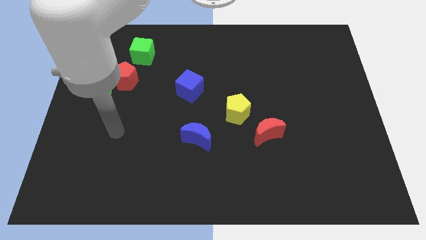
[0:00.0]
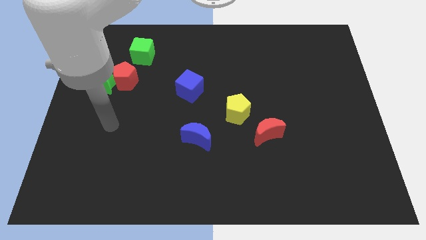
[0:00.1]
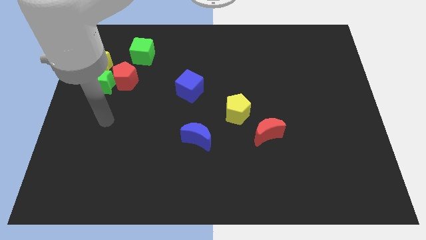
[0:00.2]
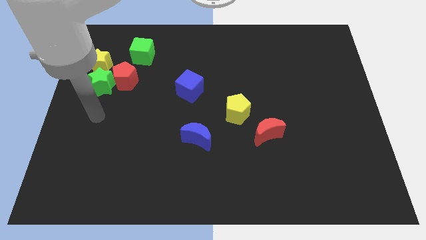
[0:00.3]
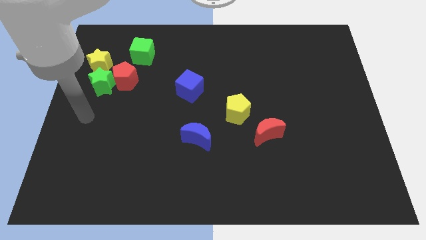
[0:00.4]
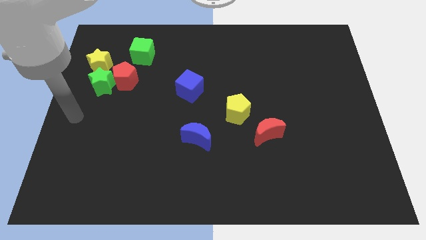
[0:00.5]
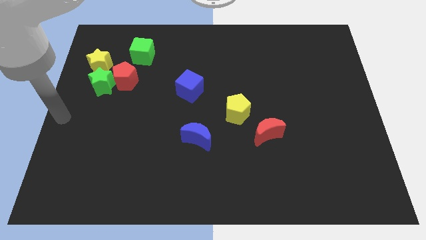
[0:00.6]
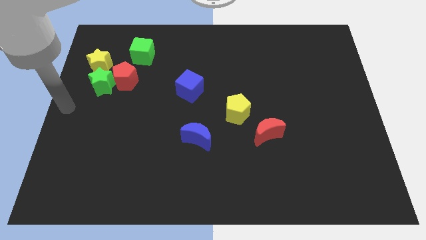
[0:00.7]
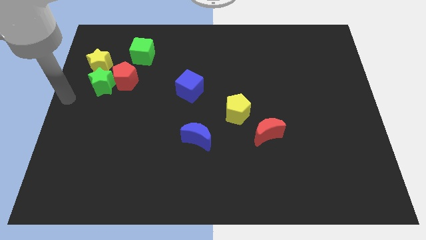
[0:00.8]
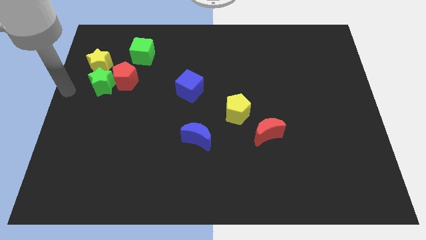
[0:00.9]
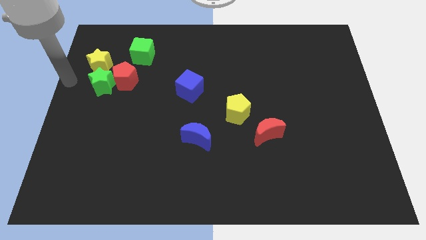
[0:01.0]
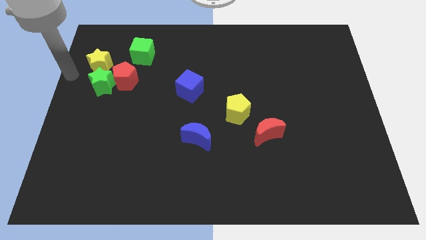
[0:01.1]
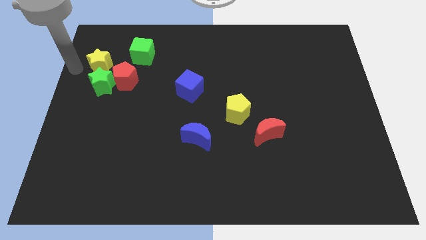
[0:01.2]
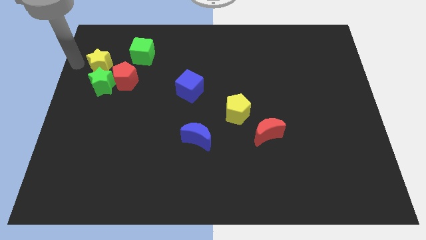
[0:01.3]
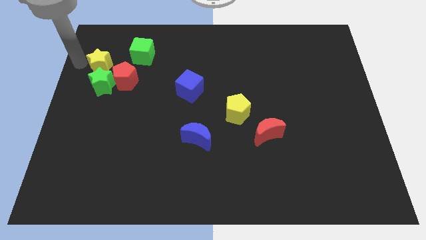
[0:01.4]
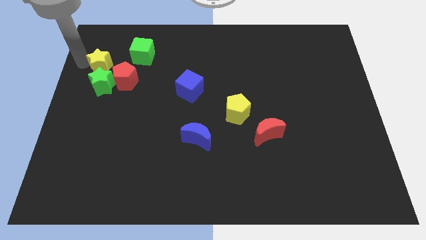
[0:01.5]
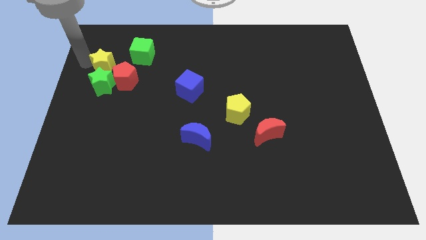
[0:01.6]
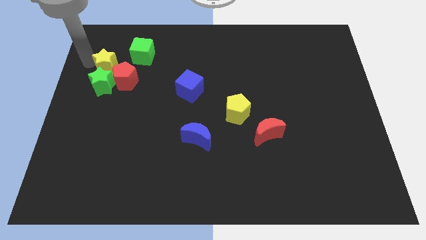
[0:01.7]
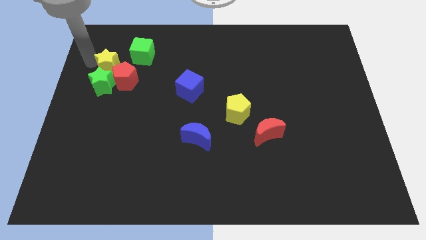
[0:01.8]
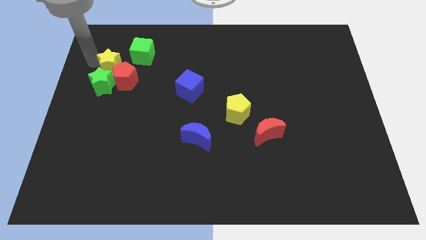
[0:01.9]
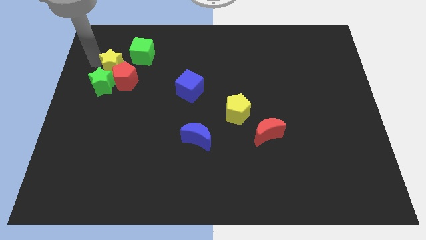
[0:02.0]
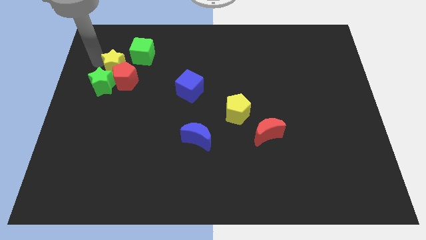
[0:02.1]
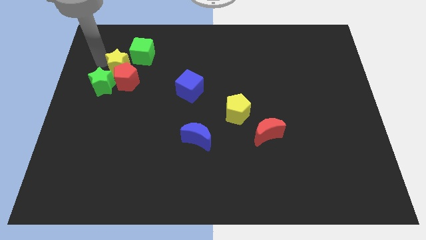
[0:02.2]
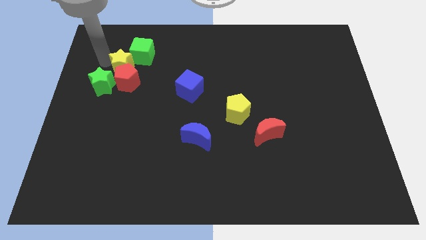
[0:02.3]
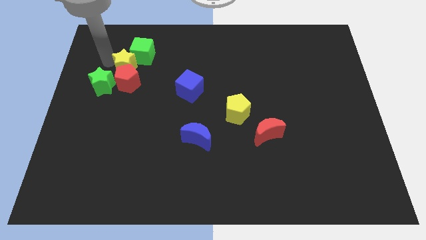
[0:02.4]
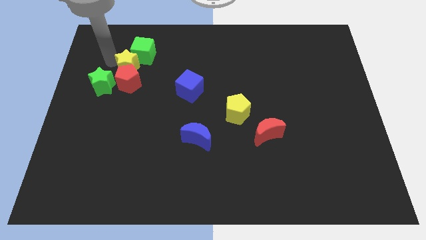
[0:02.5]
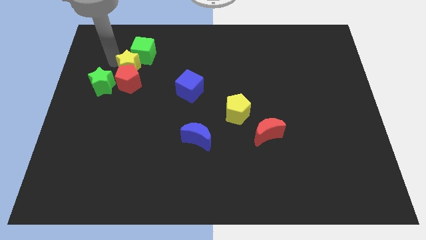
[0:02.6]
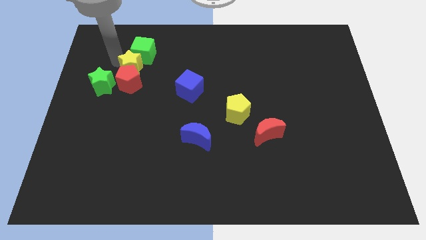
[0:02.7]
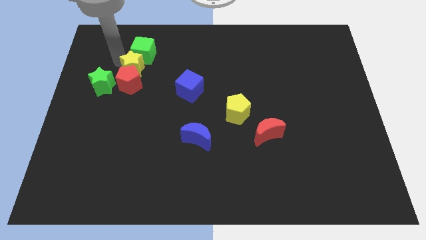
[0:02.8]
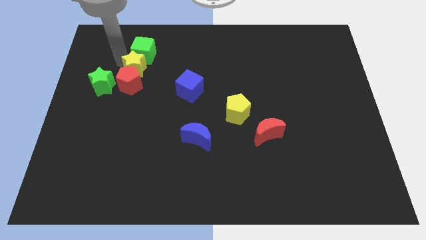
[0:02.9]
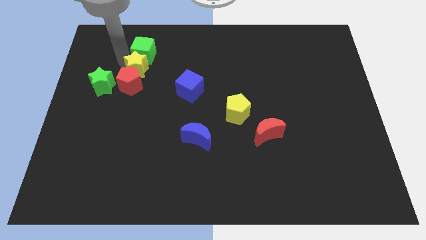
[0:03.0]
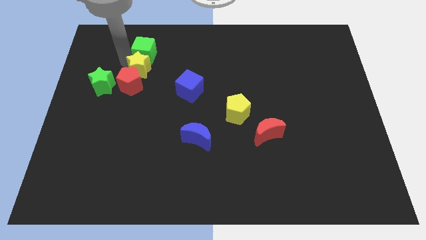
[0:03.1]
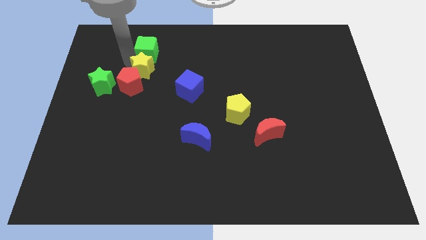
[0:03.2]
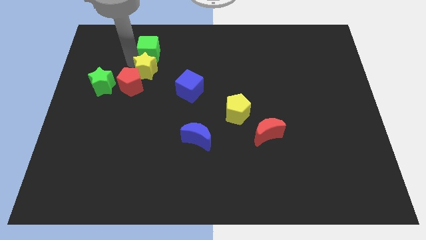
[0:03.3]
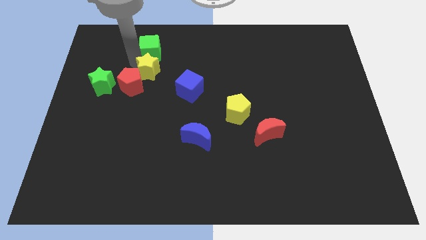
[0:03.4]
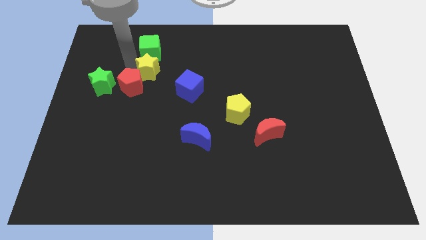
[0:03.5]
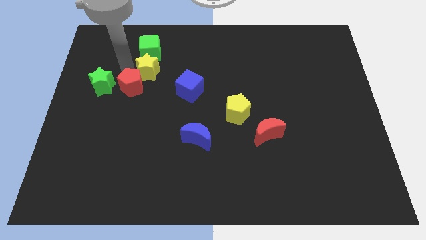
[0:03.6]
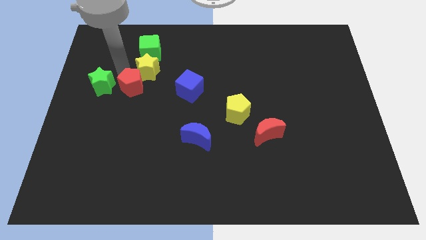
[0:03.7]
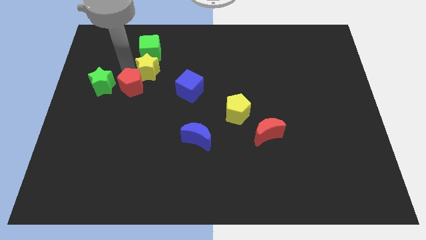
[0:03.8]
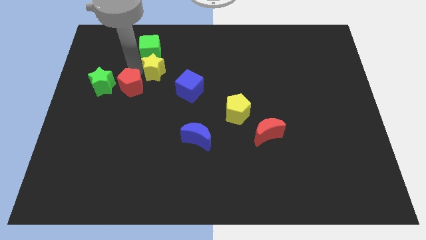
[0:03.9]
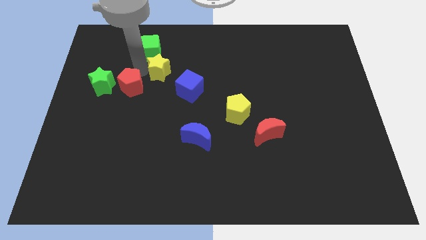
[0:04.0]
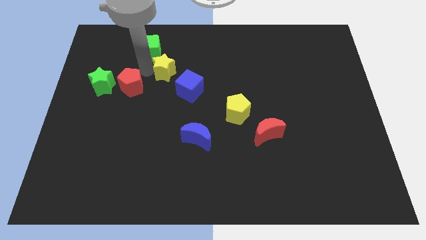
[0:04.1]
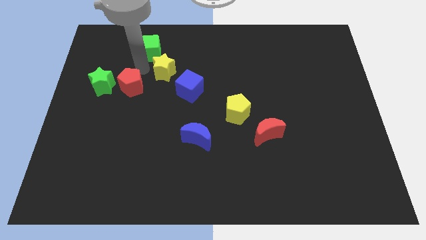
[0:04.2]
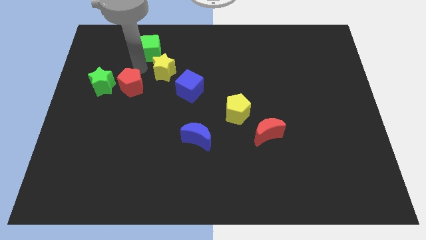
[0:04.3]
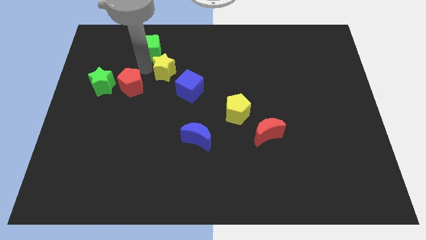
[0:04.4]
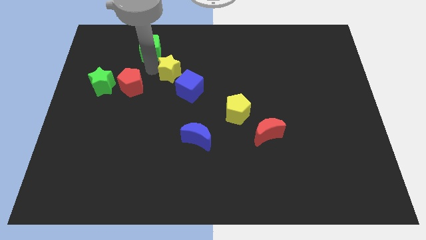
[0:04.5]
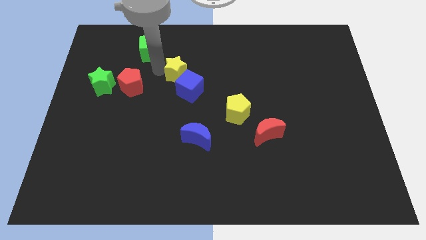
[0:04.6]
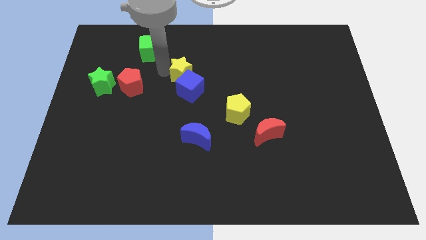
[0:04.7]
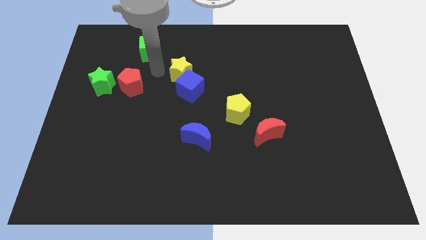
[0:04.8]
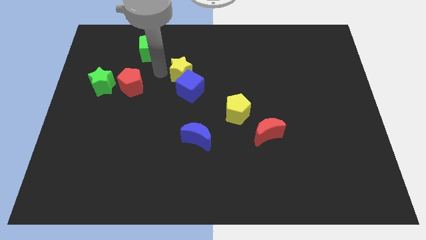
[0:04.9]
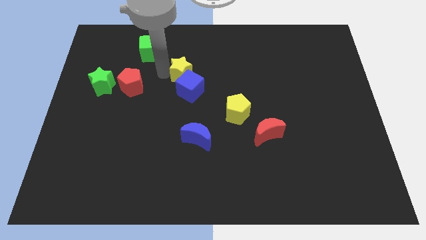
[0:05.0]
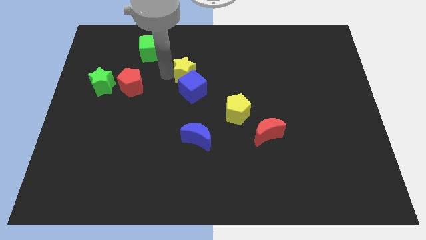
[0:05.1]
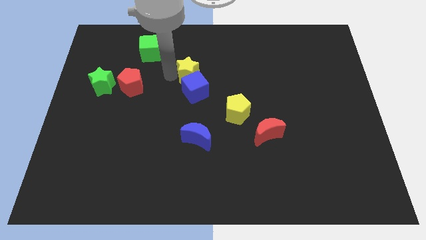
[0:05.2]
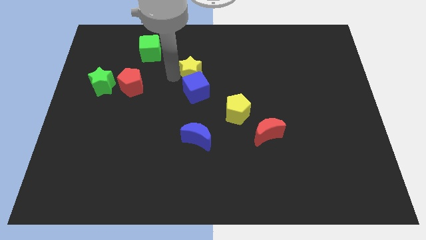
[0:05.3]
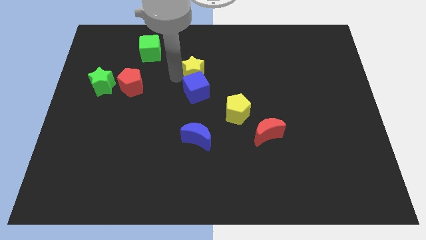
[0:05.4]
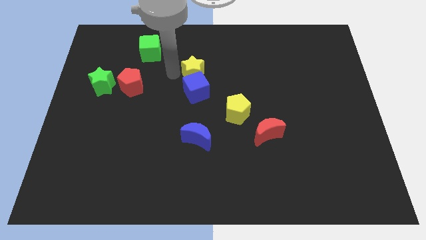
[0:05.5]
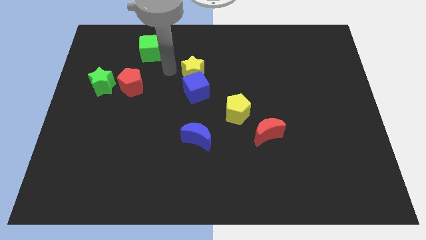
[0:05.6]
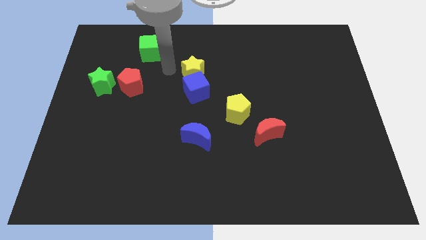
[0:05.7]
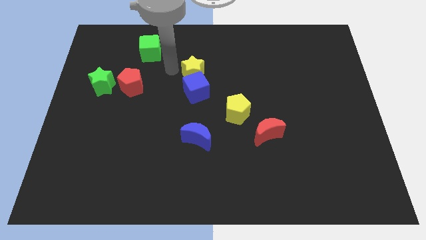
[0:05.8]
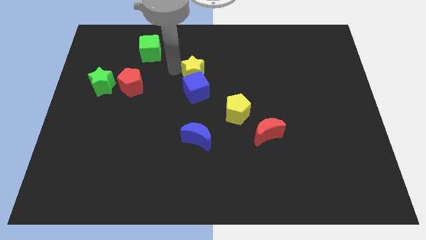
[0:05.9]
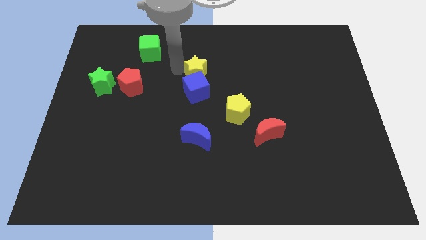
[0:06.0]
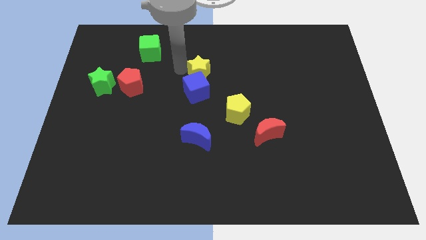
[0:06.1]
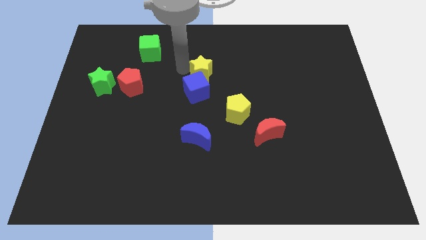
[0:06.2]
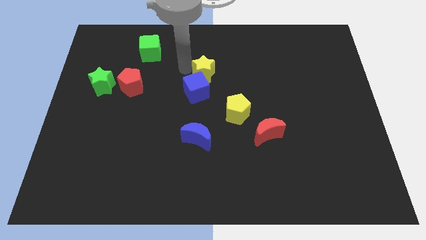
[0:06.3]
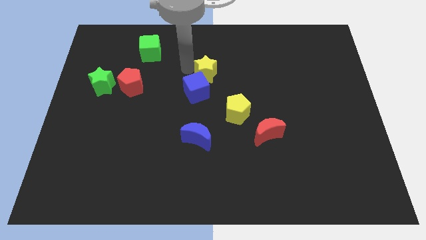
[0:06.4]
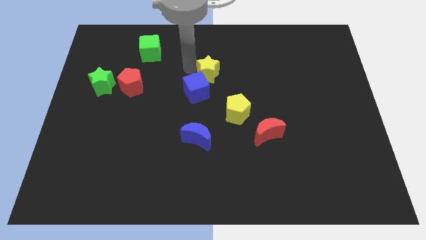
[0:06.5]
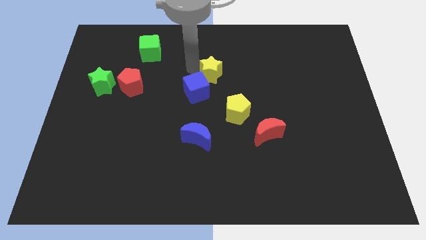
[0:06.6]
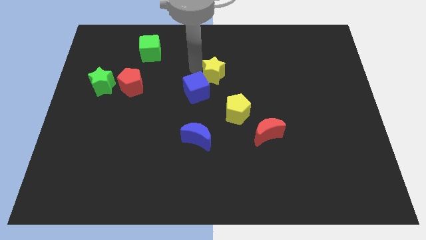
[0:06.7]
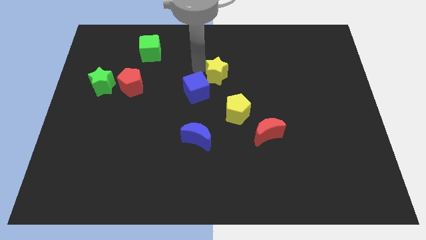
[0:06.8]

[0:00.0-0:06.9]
slide the yellow star above the yellow pentagon
